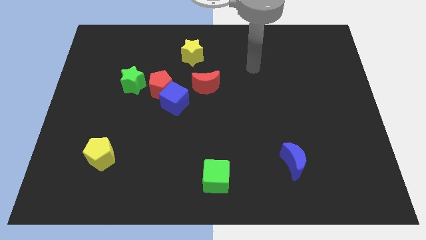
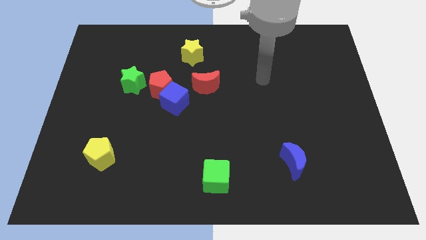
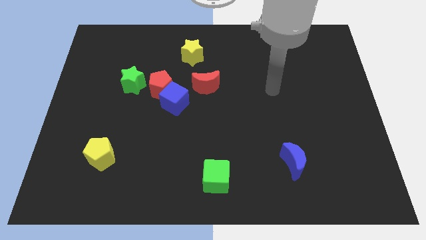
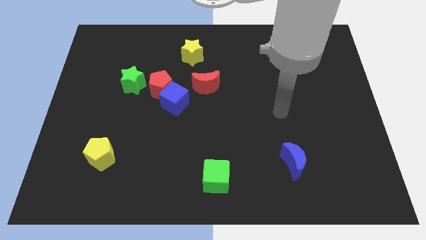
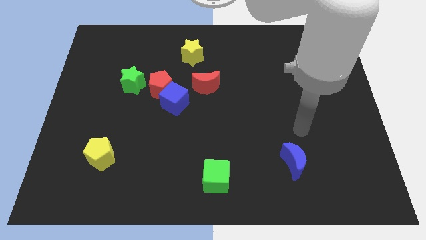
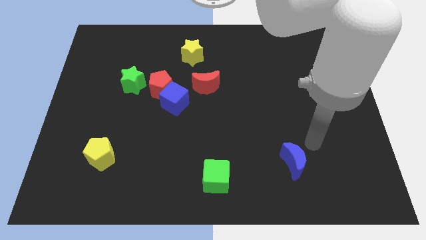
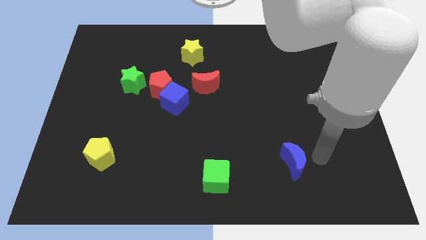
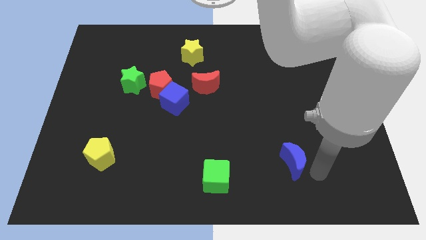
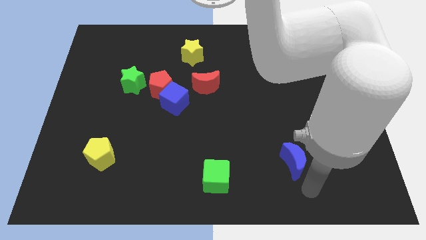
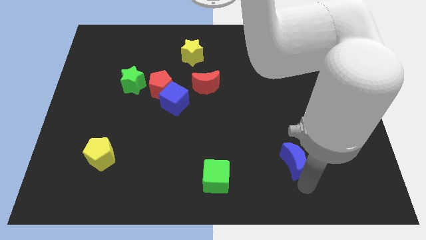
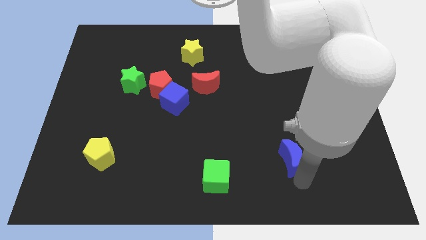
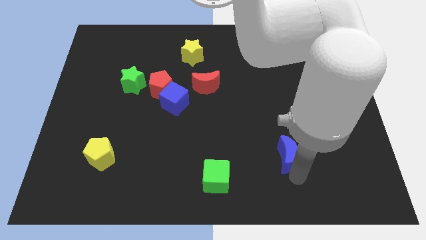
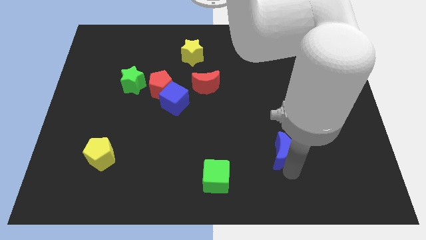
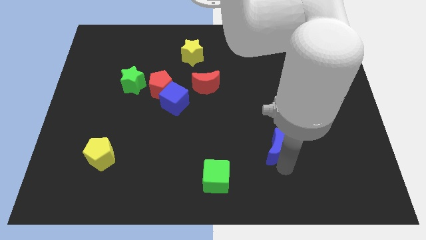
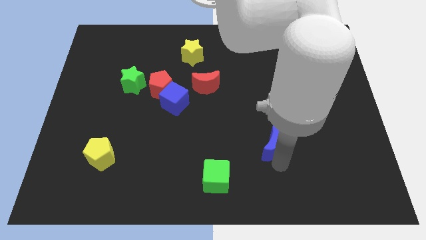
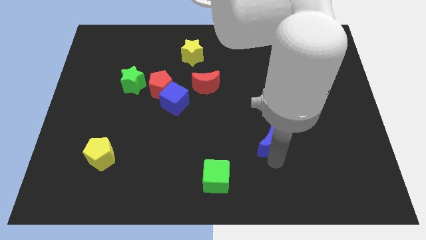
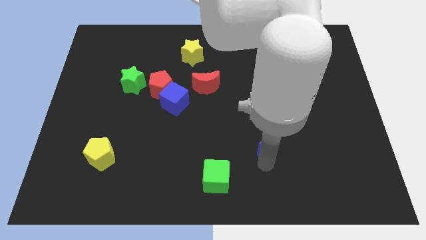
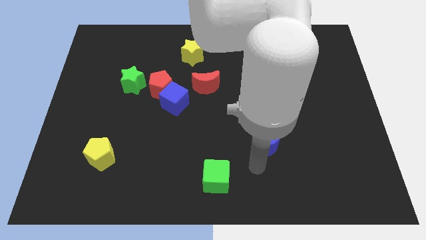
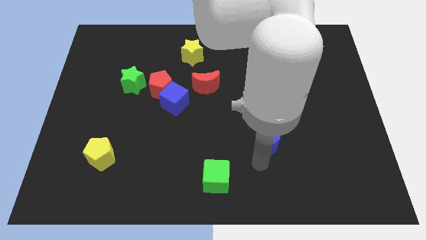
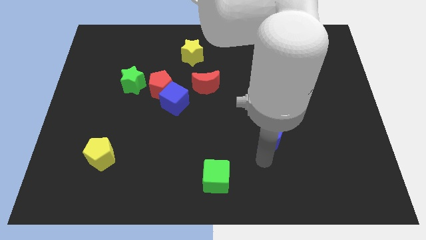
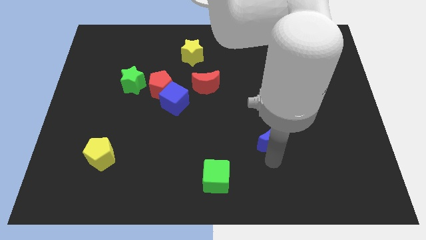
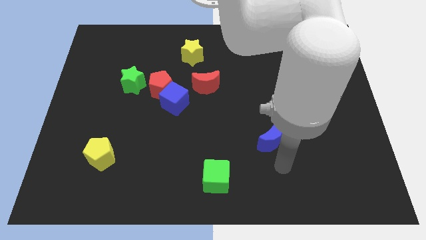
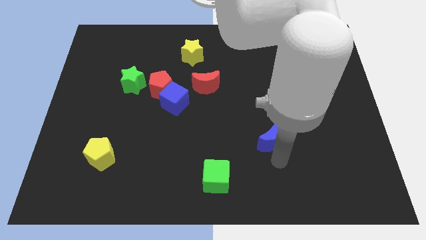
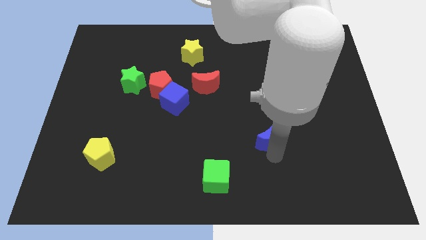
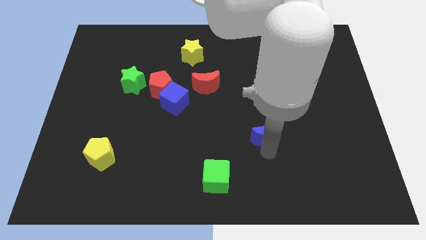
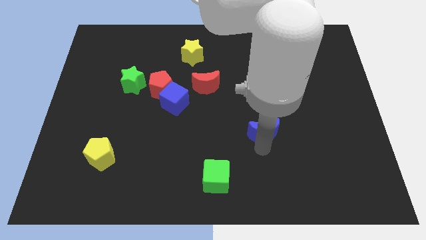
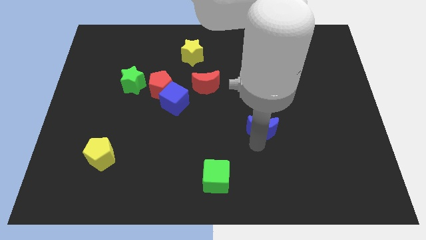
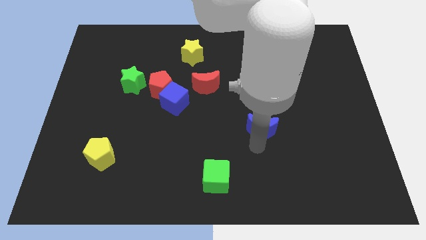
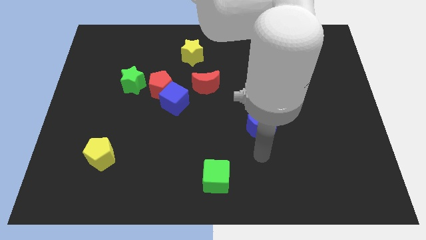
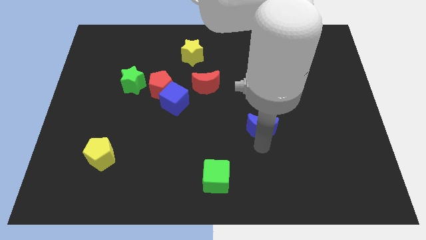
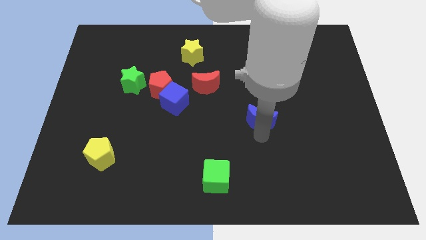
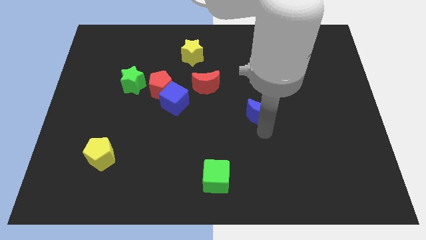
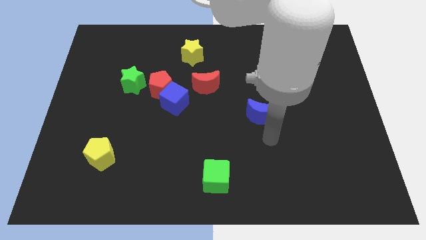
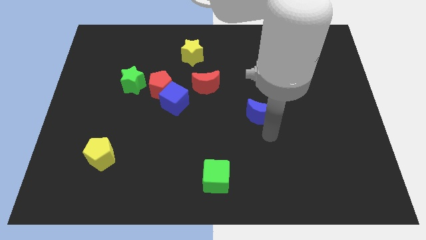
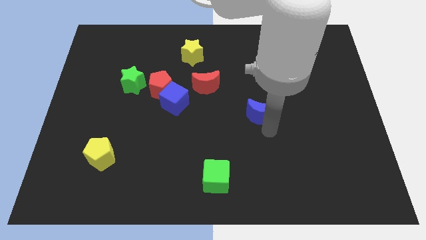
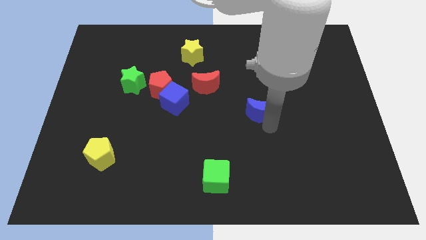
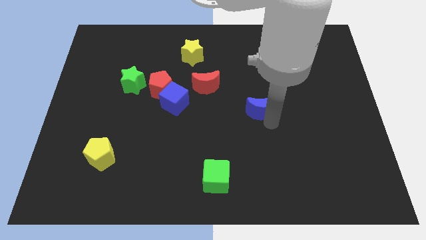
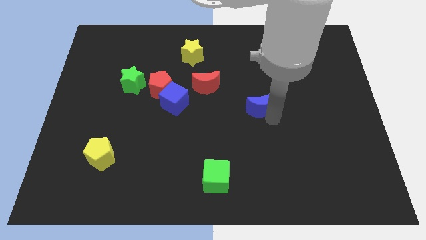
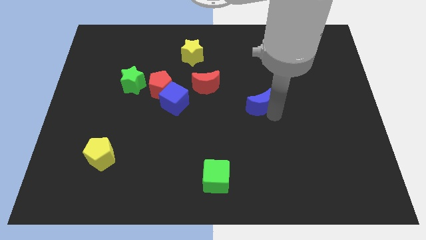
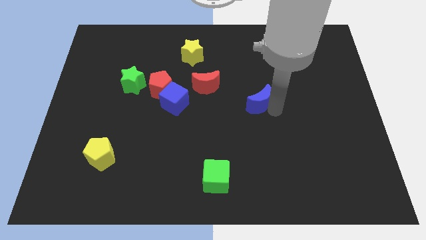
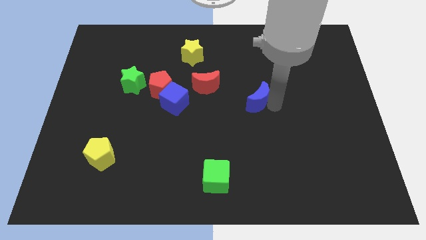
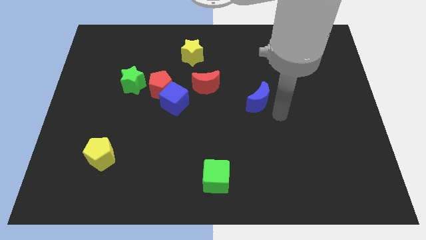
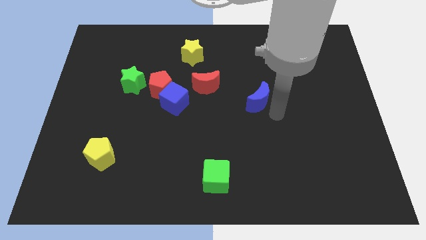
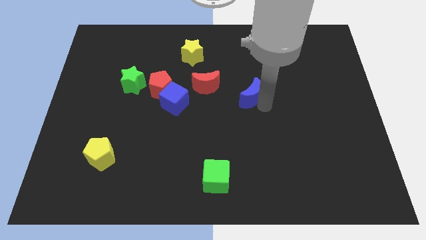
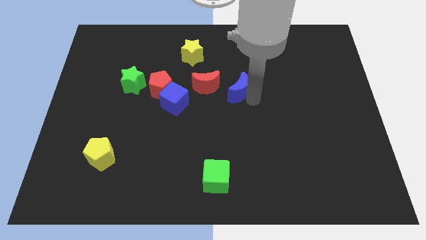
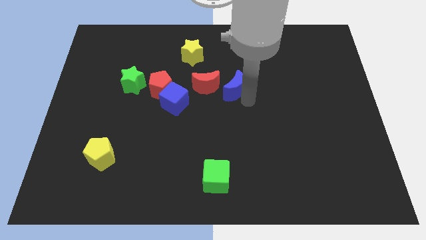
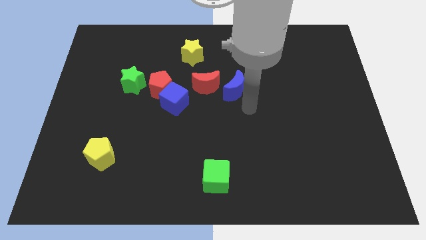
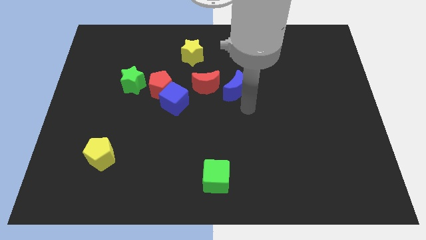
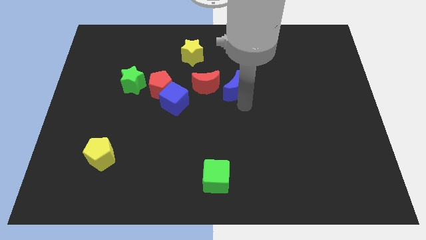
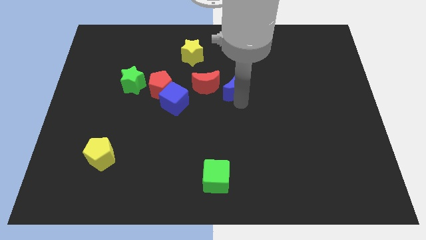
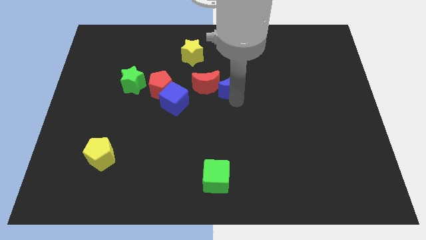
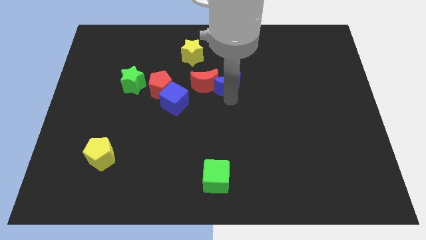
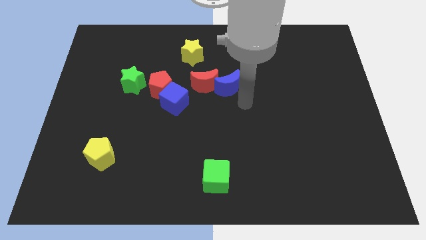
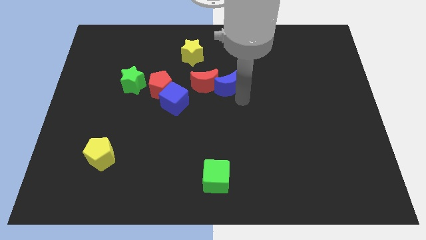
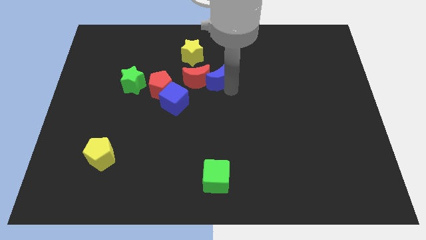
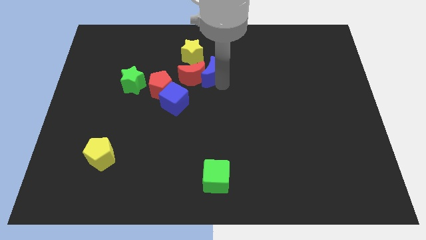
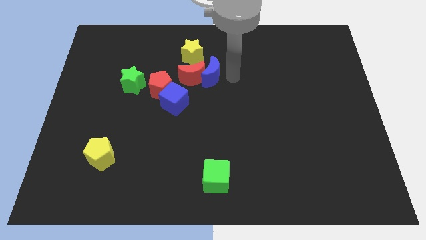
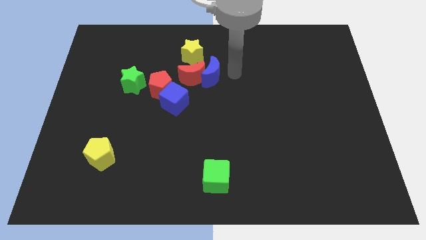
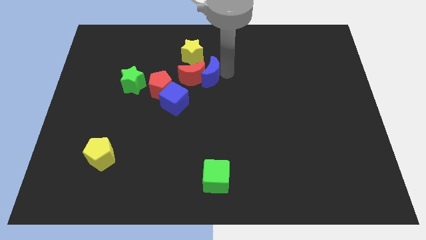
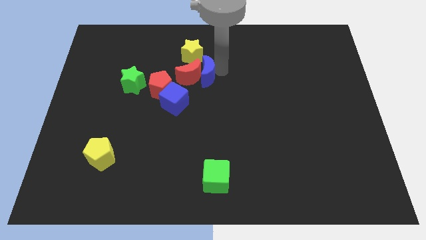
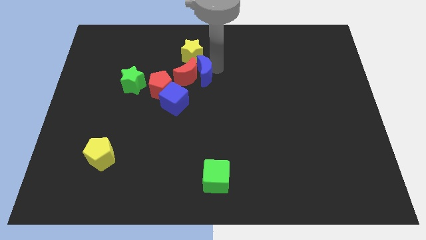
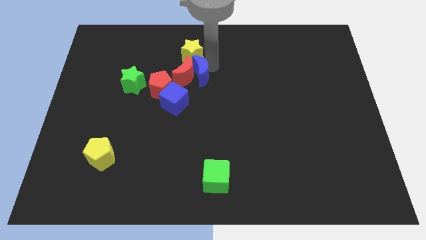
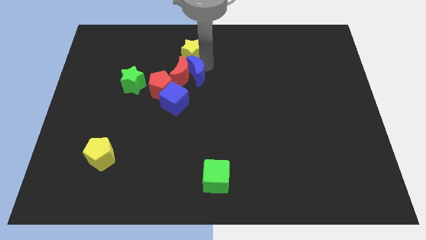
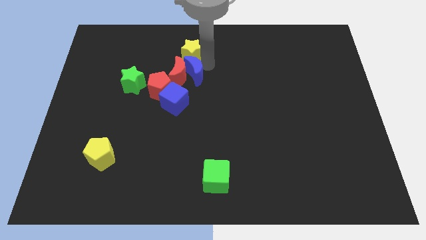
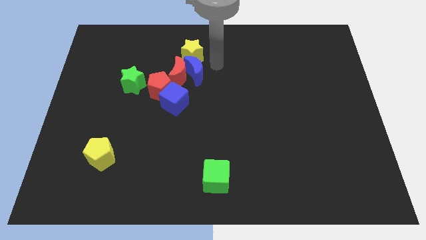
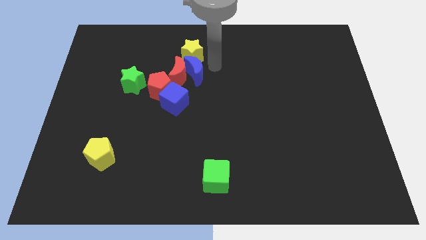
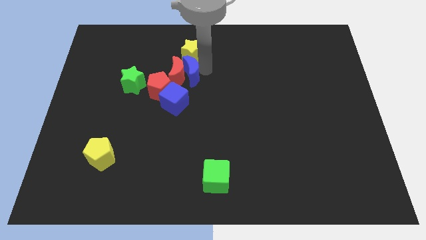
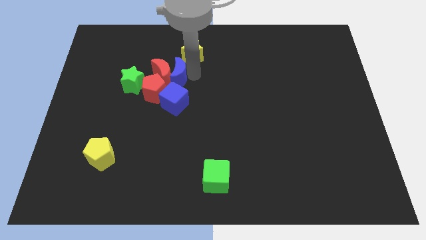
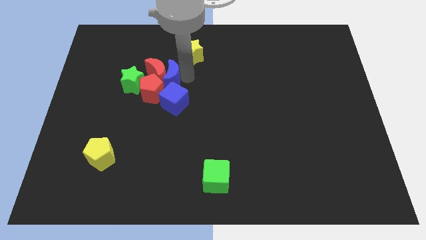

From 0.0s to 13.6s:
slide the blue moon to the top left of the blue cube
